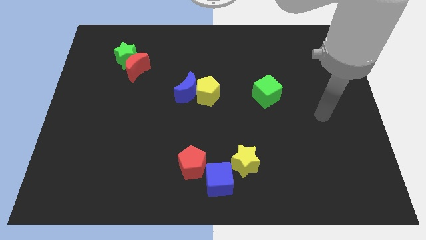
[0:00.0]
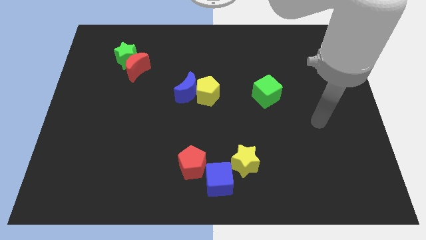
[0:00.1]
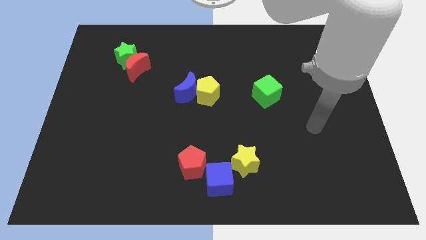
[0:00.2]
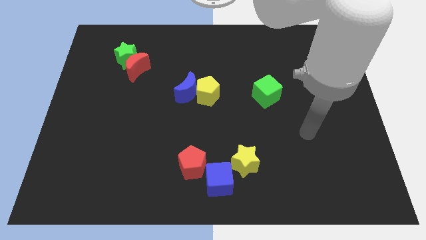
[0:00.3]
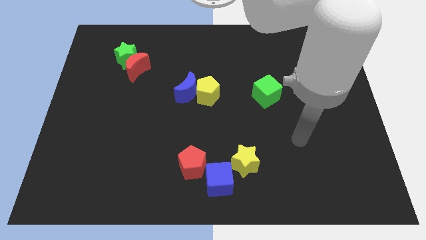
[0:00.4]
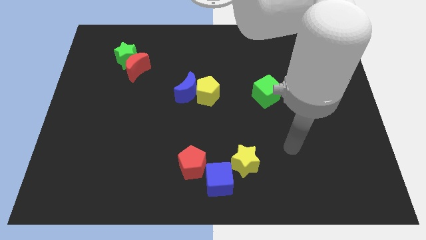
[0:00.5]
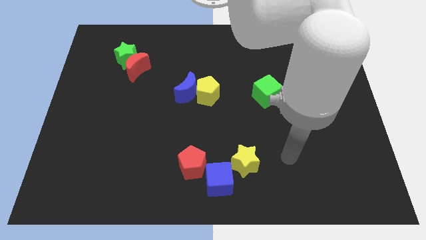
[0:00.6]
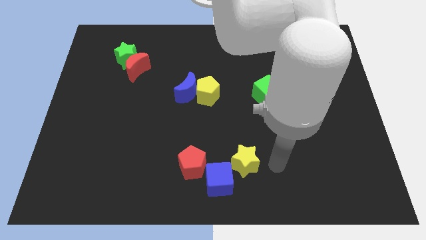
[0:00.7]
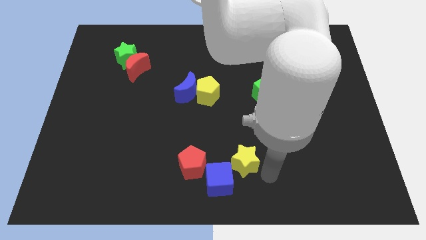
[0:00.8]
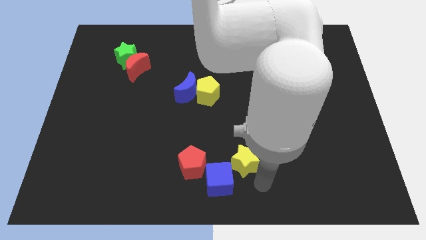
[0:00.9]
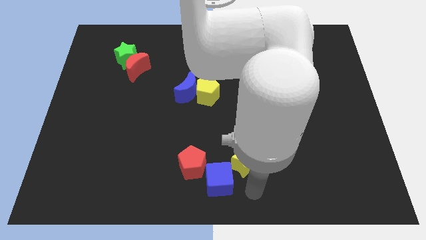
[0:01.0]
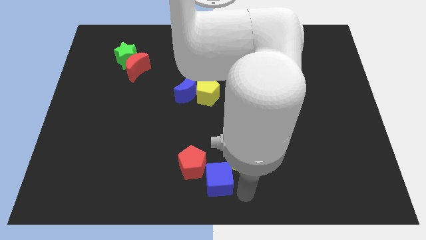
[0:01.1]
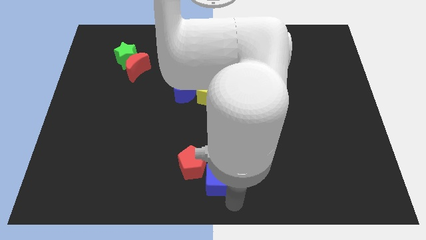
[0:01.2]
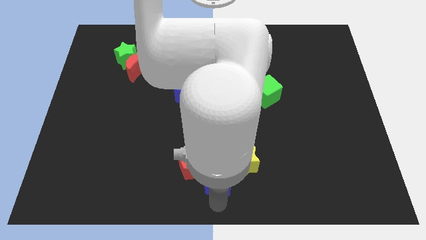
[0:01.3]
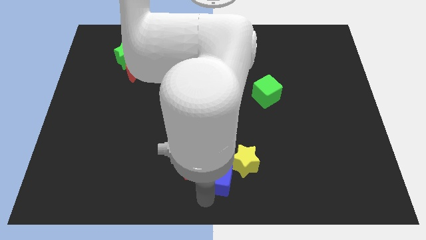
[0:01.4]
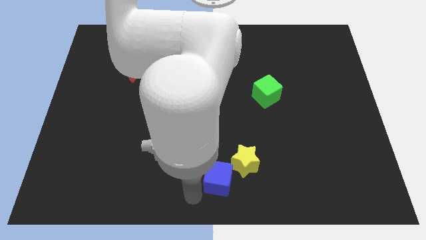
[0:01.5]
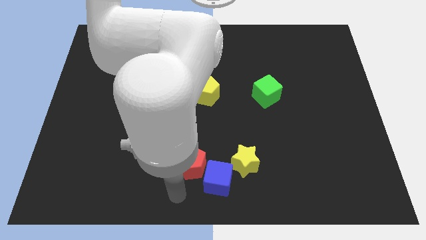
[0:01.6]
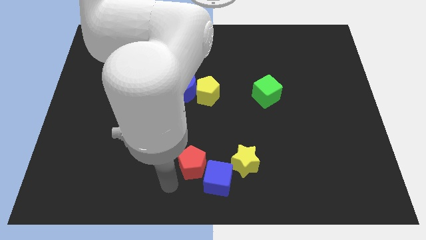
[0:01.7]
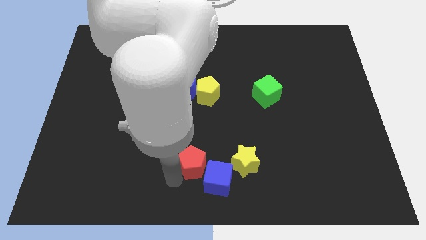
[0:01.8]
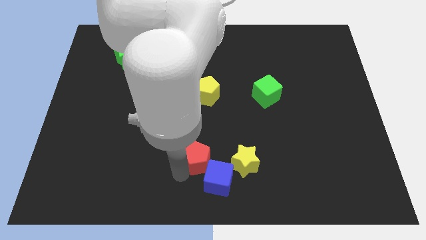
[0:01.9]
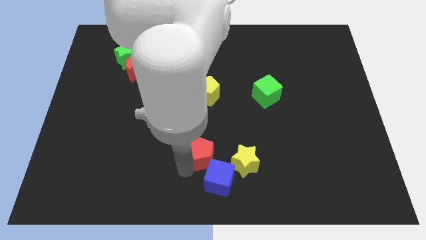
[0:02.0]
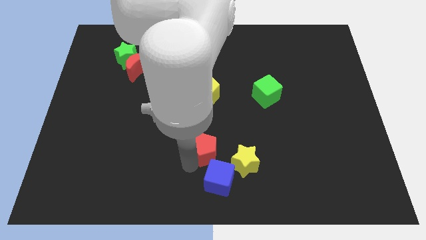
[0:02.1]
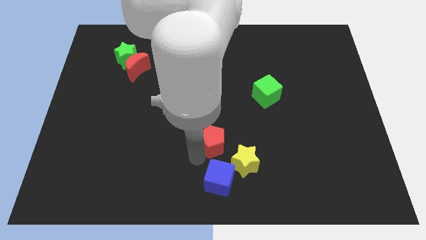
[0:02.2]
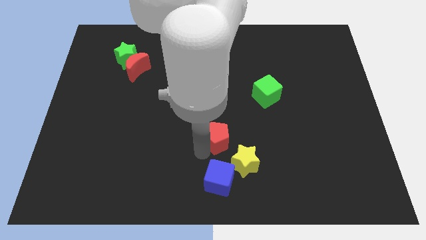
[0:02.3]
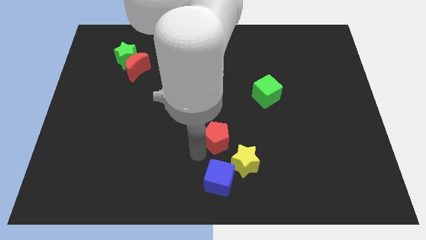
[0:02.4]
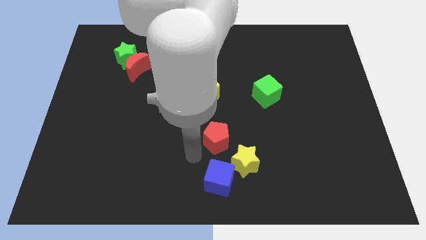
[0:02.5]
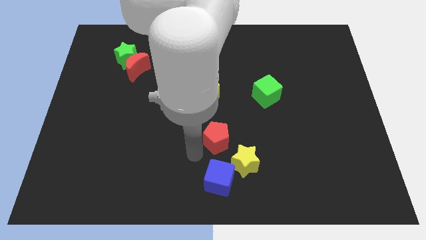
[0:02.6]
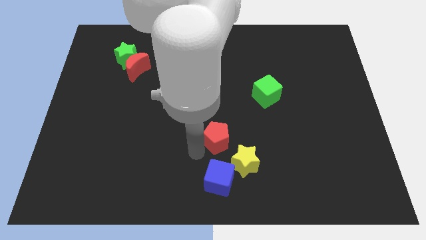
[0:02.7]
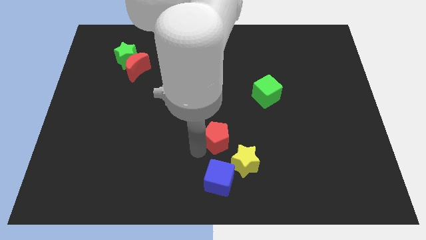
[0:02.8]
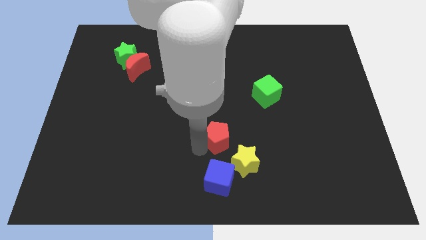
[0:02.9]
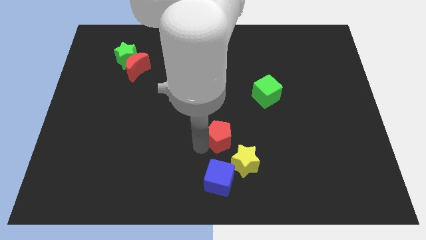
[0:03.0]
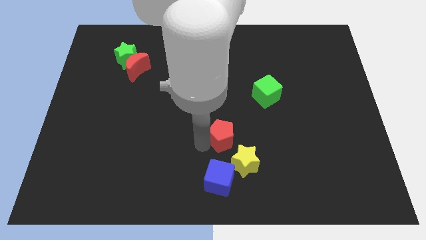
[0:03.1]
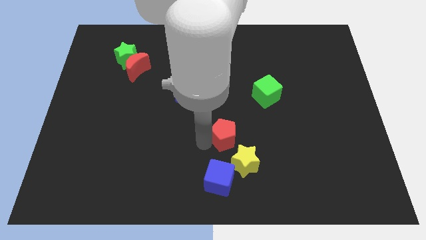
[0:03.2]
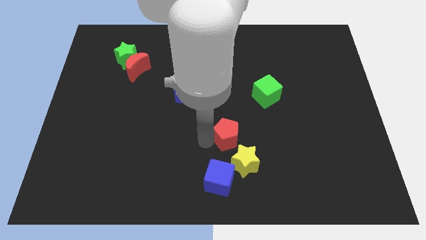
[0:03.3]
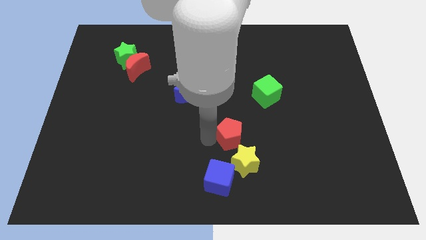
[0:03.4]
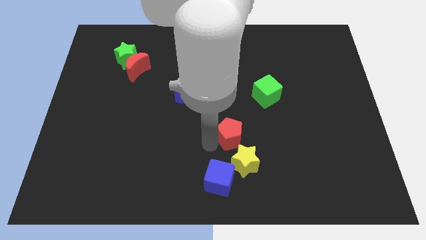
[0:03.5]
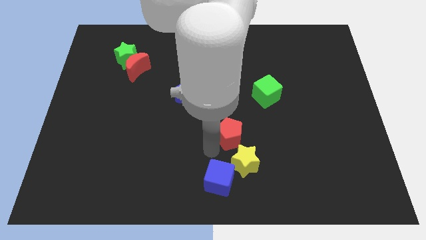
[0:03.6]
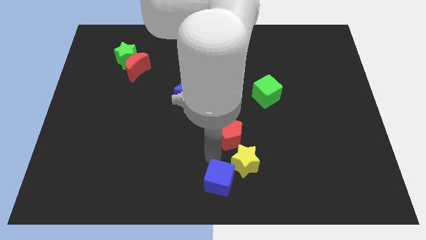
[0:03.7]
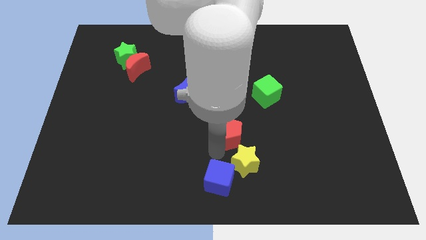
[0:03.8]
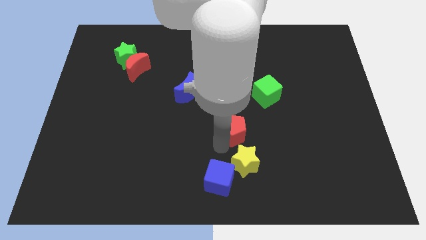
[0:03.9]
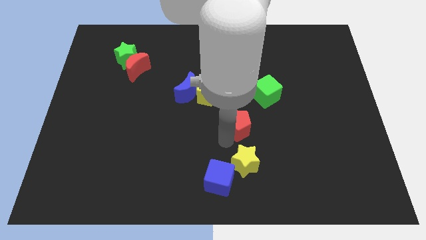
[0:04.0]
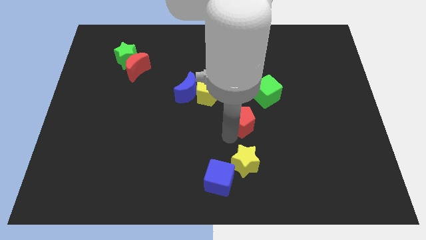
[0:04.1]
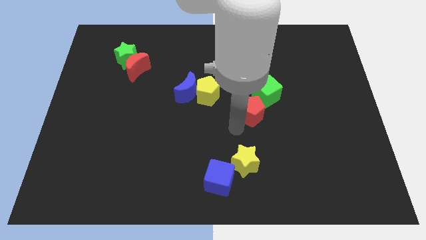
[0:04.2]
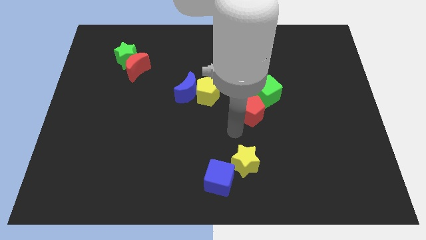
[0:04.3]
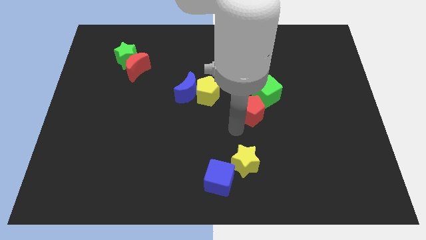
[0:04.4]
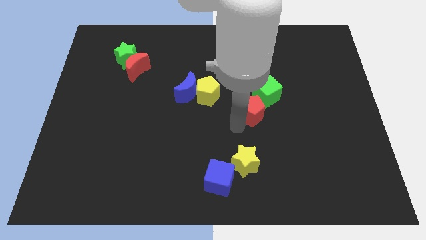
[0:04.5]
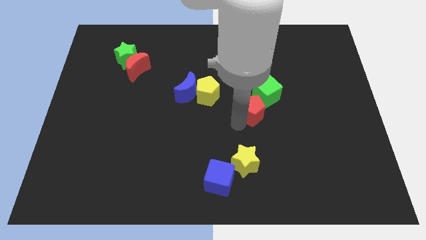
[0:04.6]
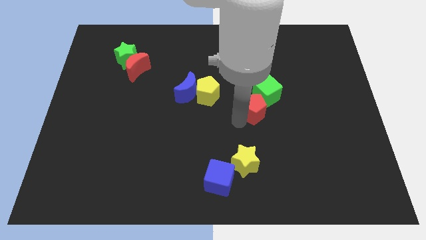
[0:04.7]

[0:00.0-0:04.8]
put the red pentagon to the green cube

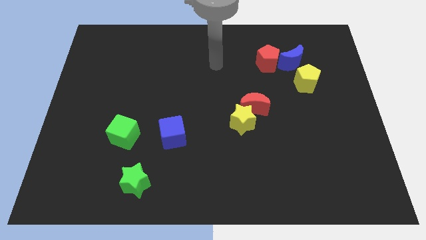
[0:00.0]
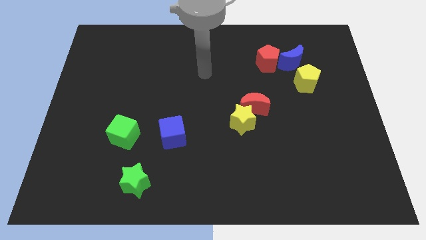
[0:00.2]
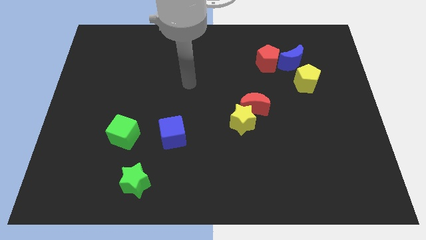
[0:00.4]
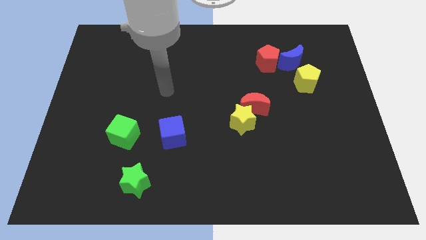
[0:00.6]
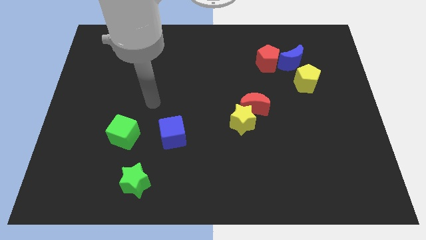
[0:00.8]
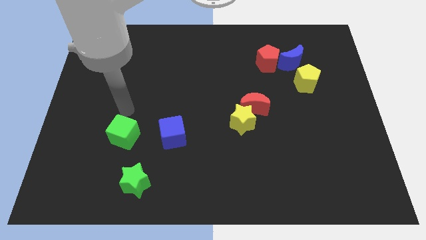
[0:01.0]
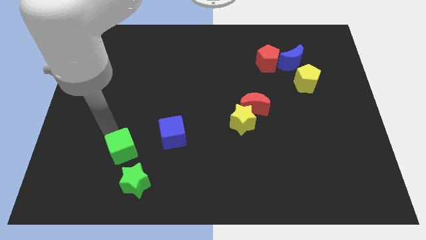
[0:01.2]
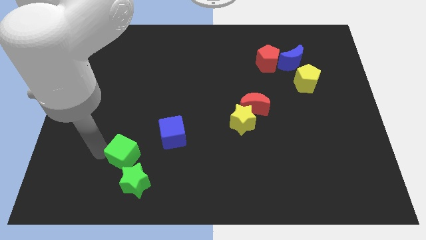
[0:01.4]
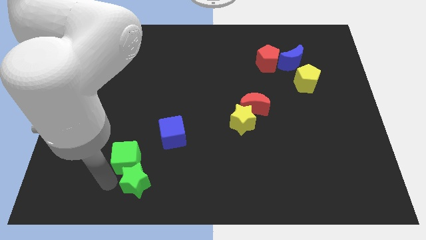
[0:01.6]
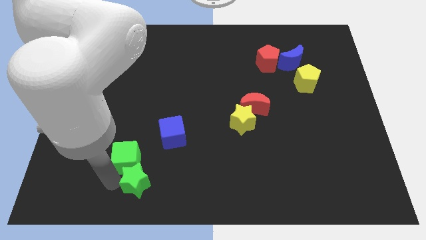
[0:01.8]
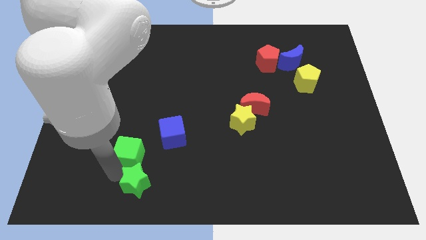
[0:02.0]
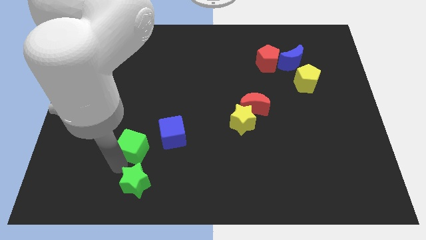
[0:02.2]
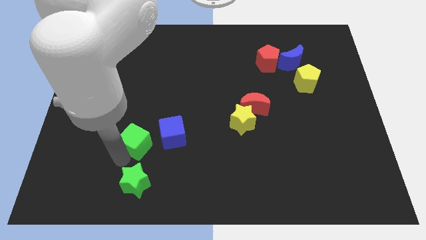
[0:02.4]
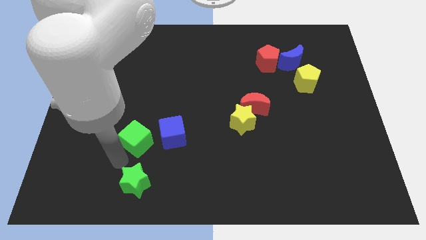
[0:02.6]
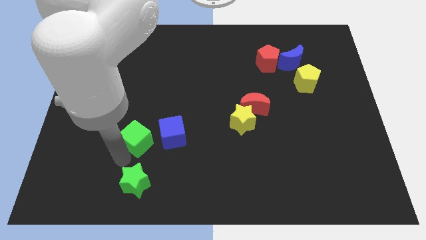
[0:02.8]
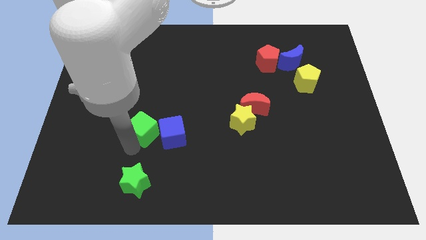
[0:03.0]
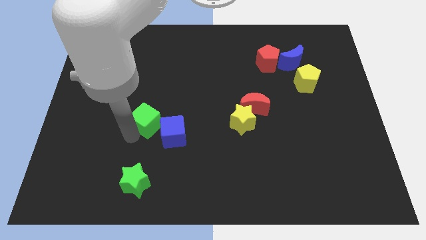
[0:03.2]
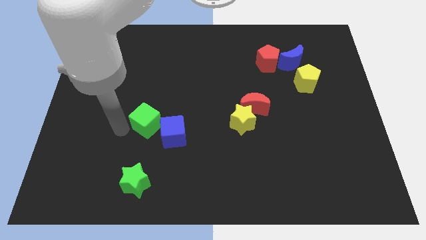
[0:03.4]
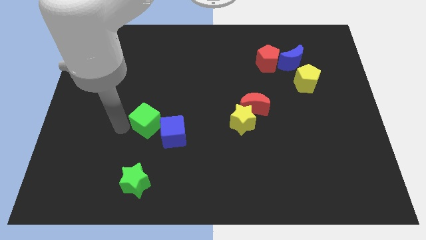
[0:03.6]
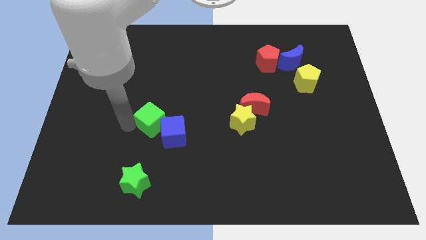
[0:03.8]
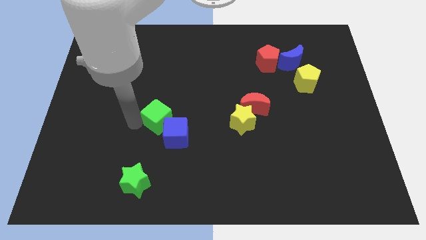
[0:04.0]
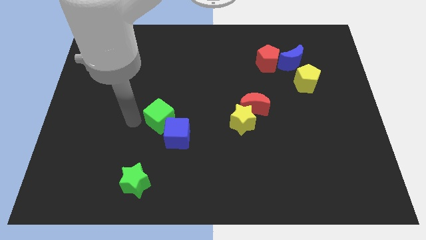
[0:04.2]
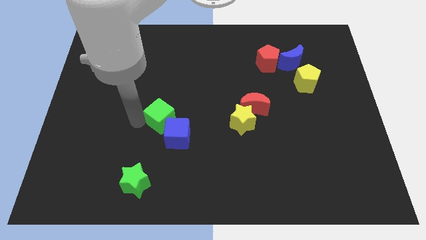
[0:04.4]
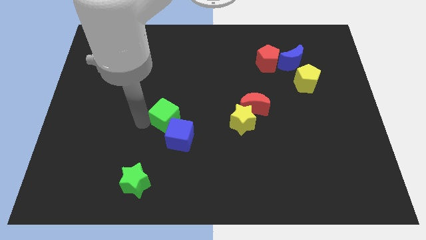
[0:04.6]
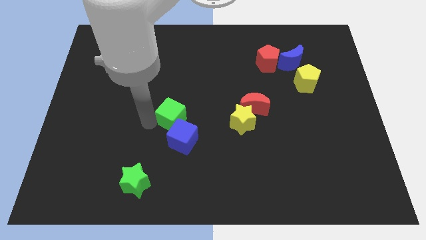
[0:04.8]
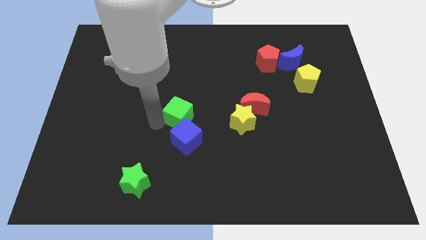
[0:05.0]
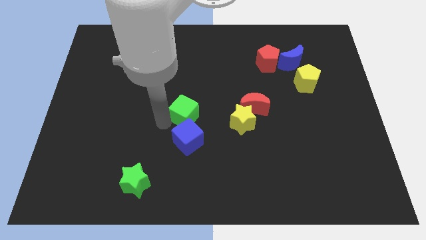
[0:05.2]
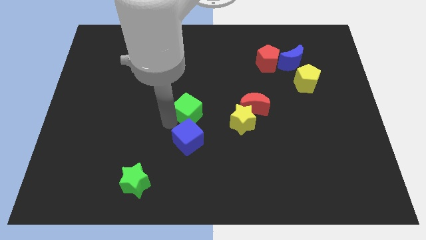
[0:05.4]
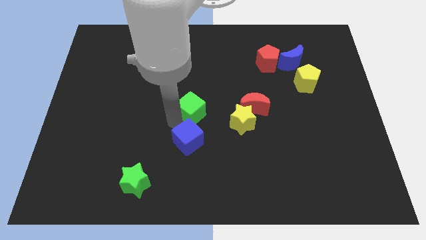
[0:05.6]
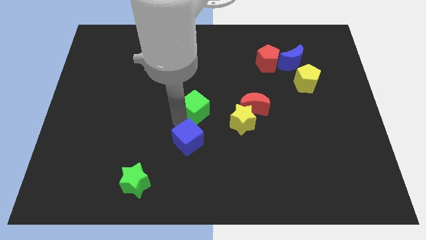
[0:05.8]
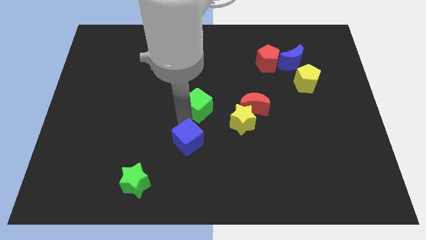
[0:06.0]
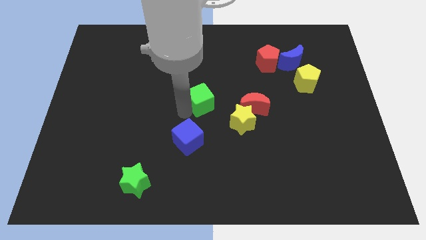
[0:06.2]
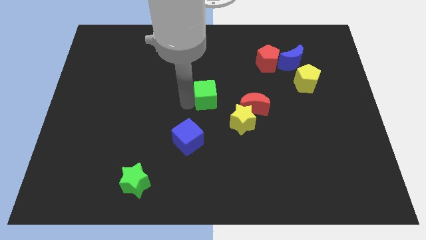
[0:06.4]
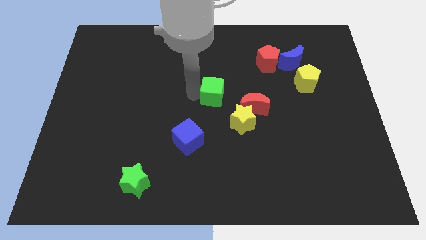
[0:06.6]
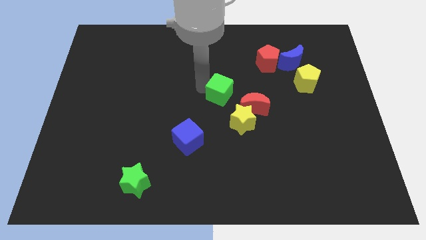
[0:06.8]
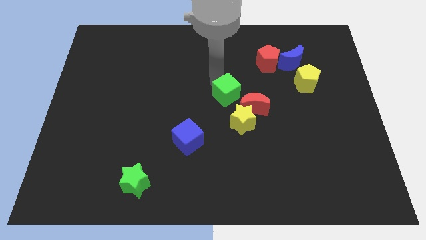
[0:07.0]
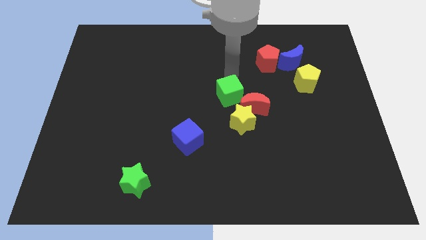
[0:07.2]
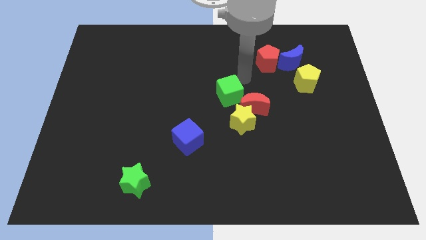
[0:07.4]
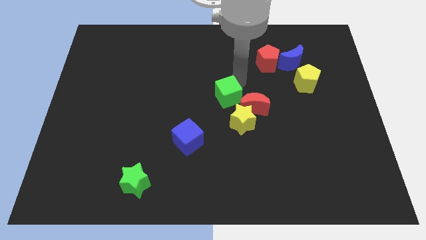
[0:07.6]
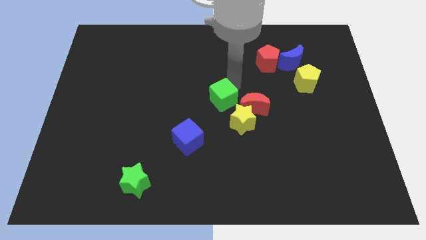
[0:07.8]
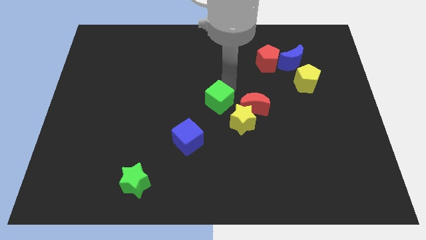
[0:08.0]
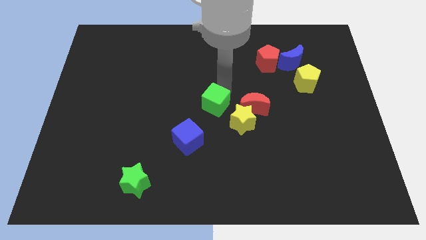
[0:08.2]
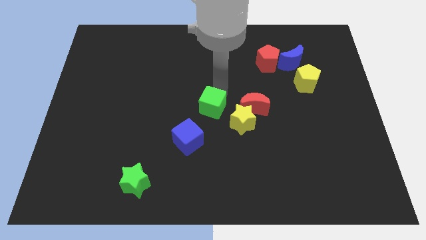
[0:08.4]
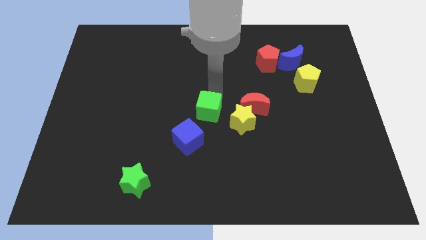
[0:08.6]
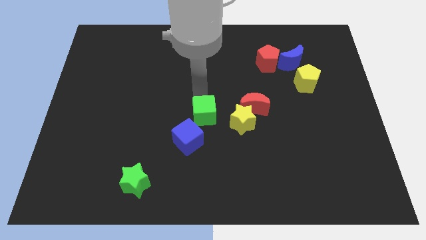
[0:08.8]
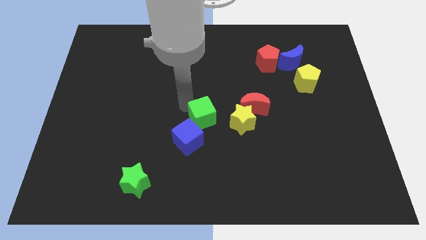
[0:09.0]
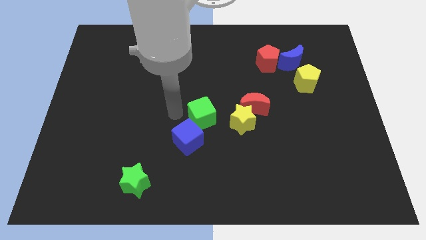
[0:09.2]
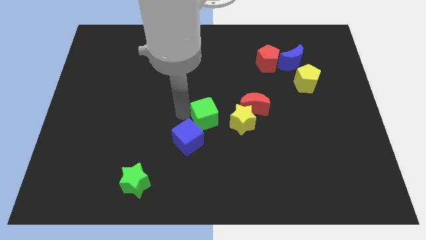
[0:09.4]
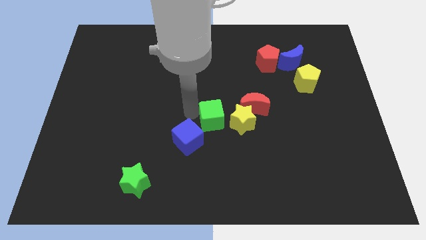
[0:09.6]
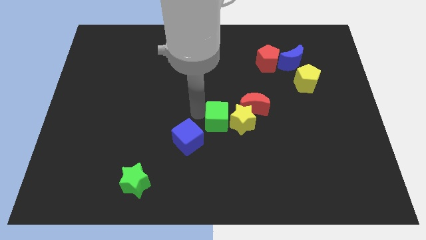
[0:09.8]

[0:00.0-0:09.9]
move the green cube towards the yellow star
